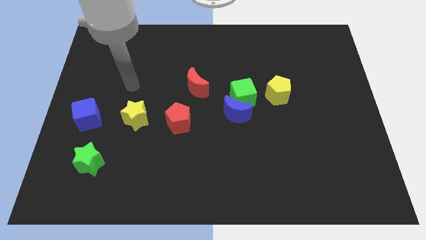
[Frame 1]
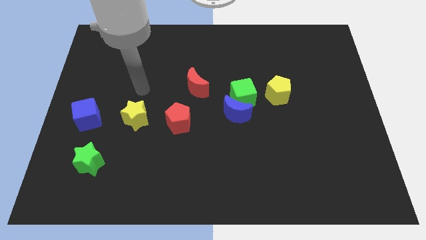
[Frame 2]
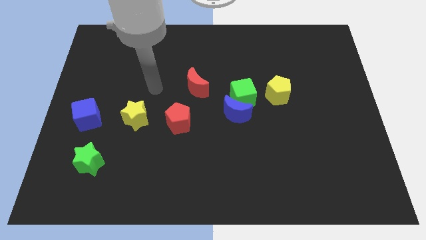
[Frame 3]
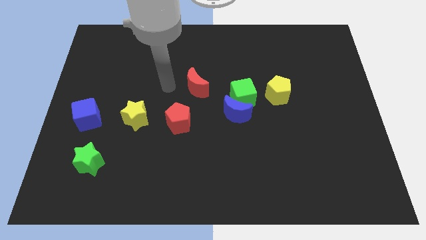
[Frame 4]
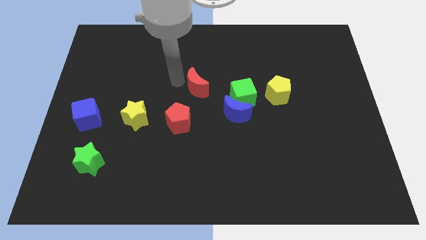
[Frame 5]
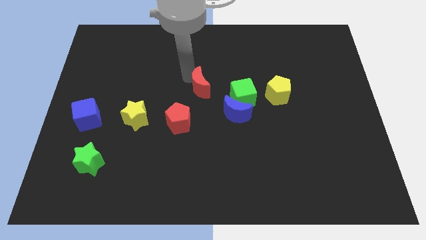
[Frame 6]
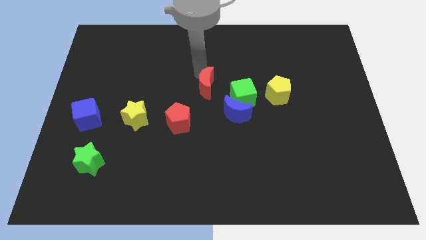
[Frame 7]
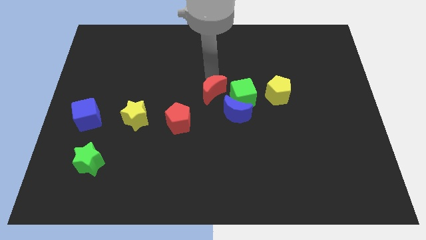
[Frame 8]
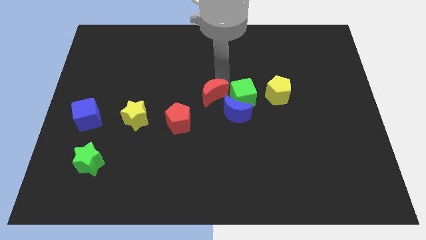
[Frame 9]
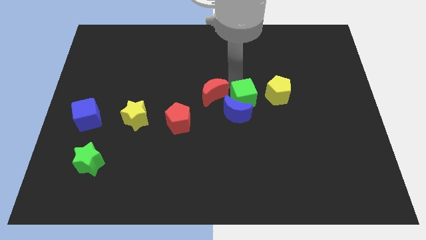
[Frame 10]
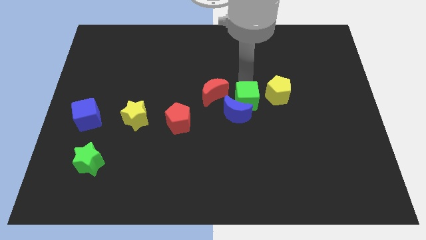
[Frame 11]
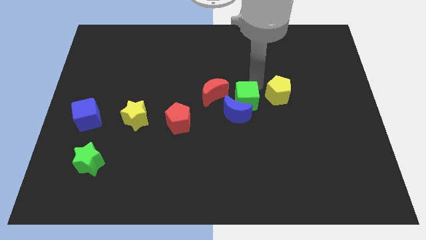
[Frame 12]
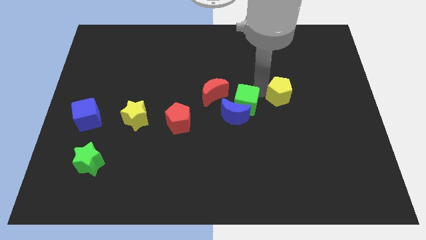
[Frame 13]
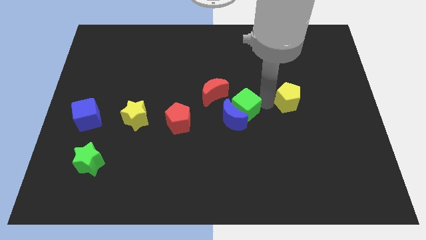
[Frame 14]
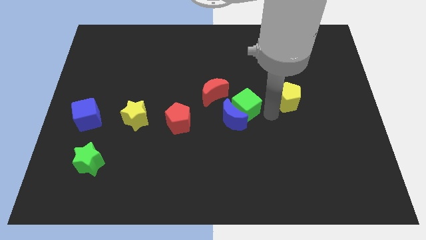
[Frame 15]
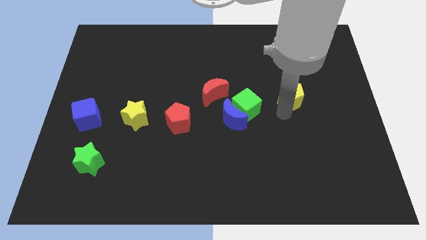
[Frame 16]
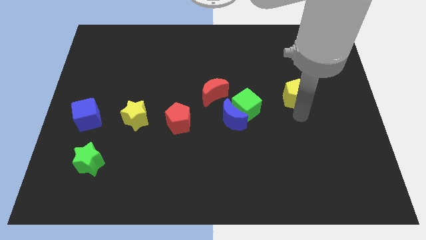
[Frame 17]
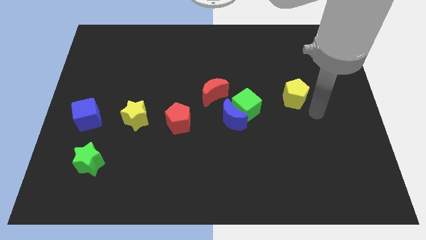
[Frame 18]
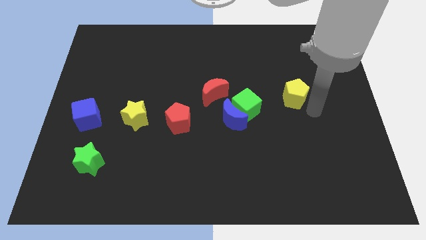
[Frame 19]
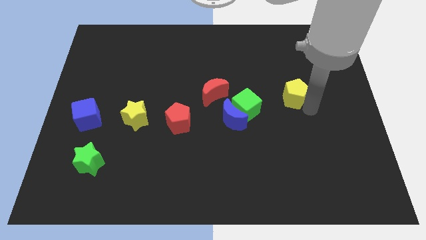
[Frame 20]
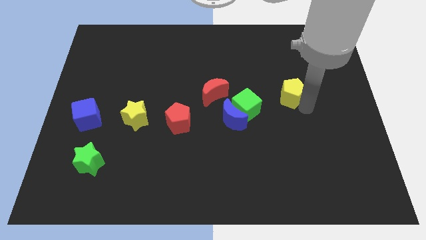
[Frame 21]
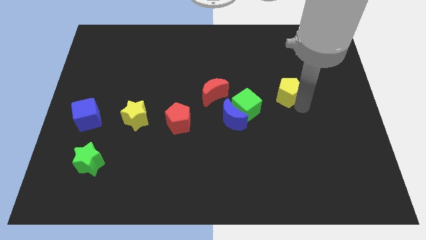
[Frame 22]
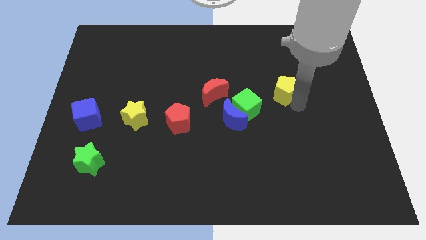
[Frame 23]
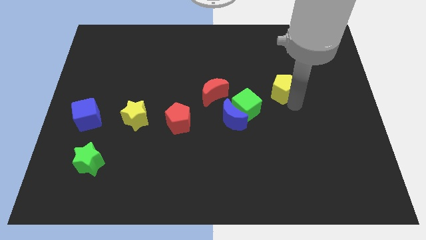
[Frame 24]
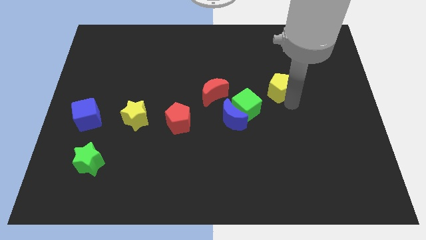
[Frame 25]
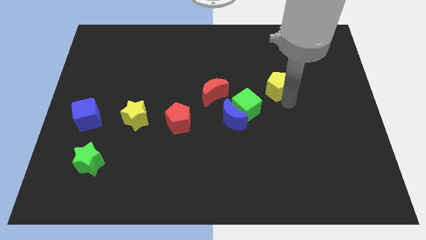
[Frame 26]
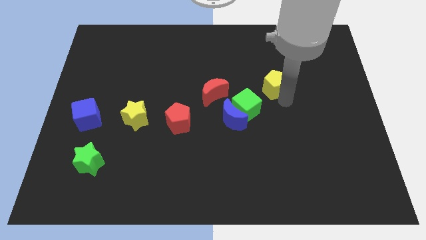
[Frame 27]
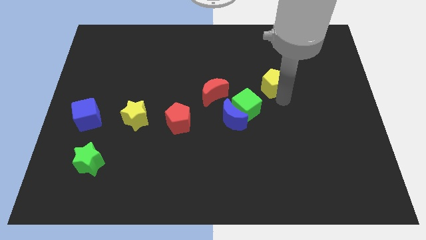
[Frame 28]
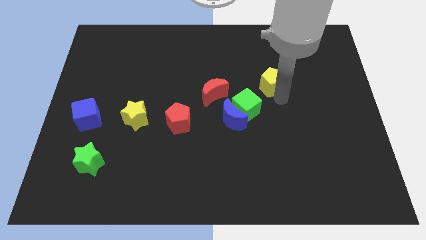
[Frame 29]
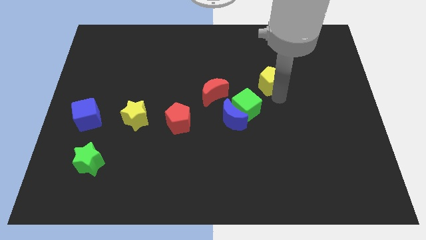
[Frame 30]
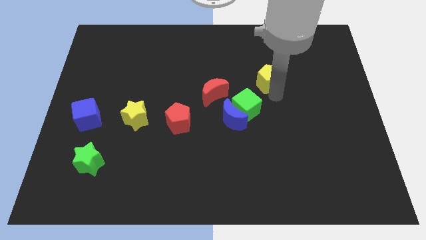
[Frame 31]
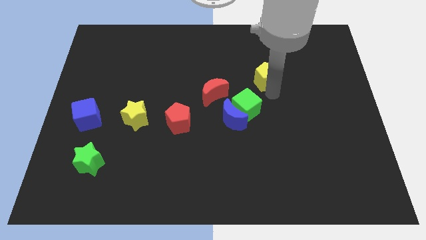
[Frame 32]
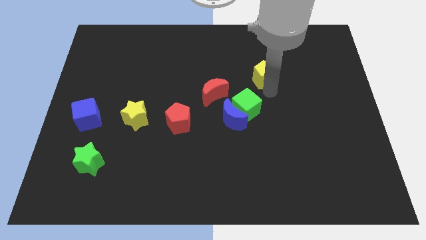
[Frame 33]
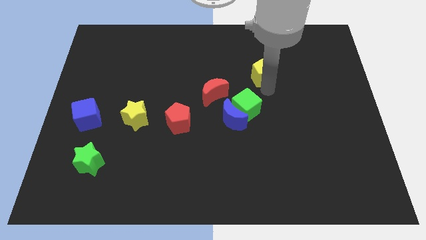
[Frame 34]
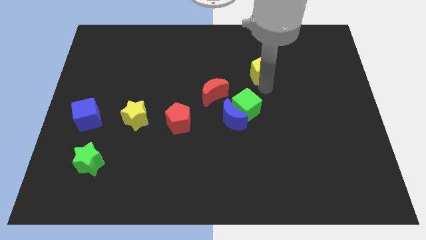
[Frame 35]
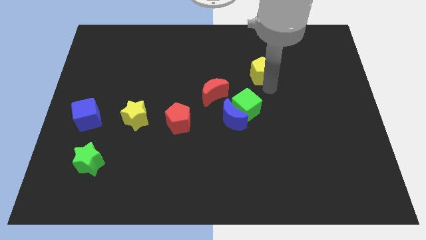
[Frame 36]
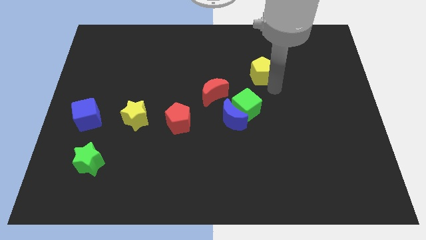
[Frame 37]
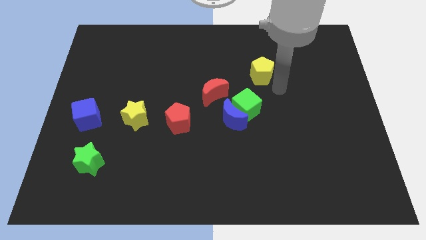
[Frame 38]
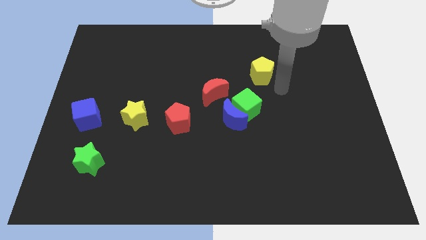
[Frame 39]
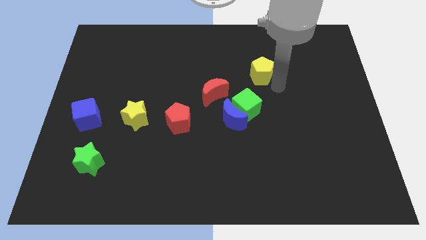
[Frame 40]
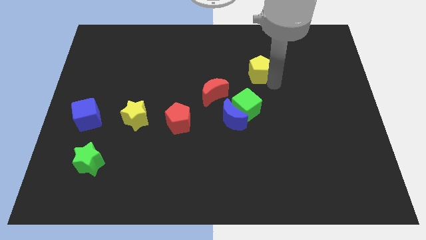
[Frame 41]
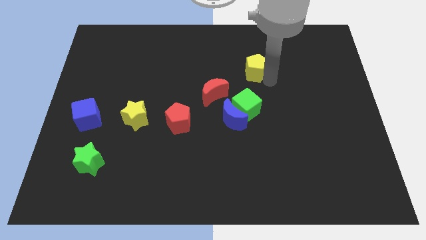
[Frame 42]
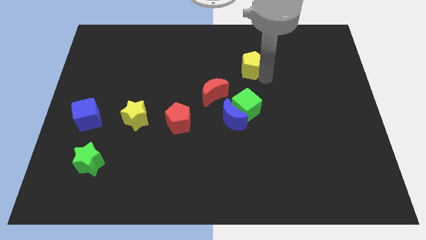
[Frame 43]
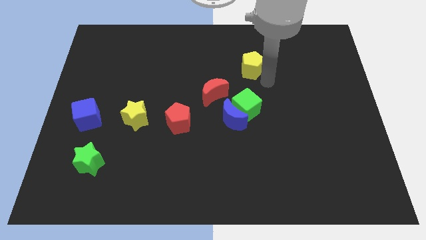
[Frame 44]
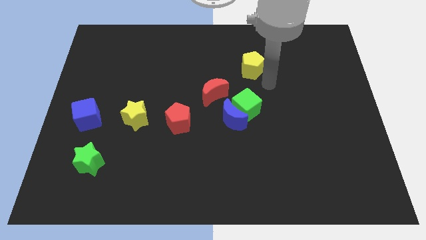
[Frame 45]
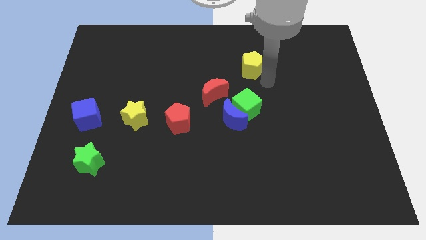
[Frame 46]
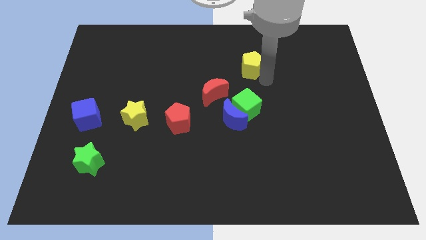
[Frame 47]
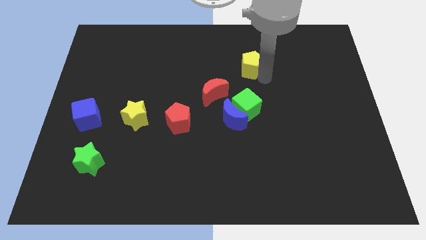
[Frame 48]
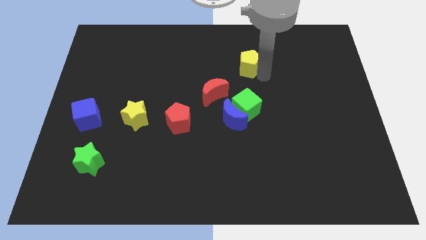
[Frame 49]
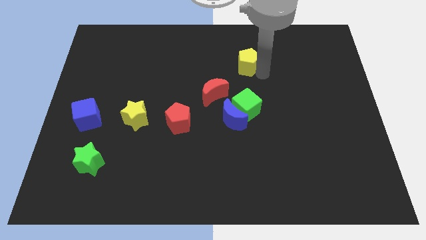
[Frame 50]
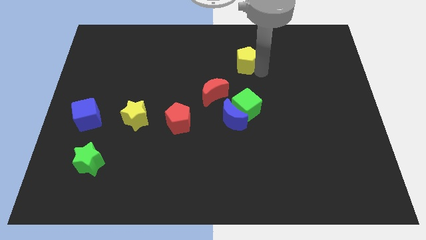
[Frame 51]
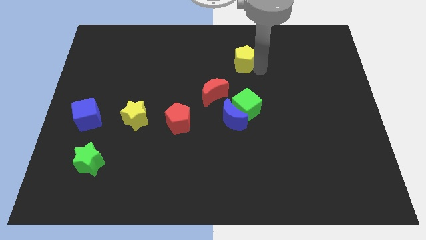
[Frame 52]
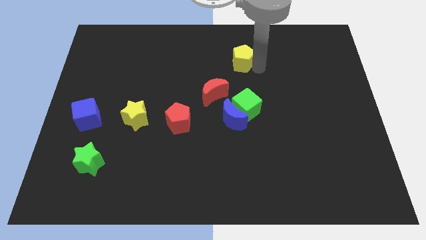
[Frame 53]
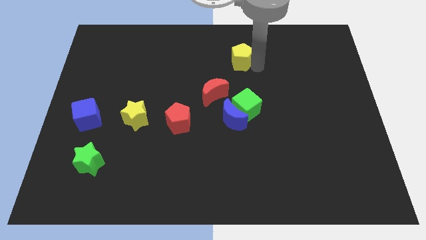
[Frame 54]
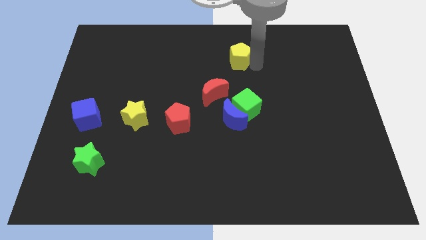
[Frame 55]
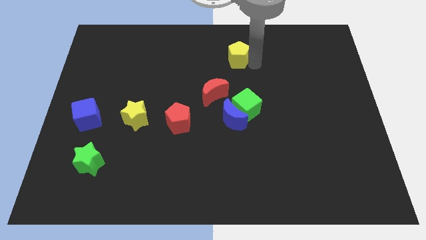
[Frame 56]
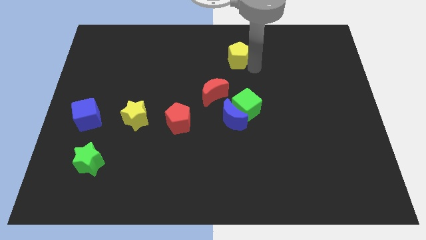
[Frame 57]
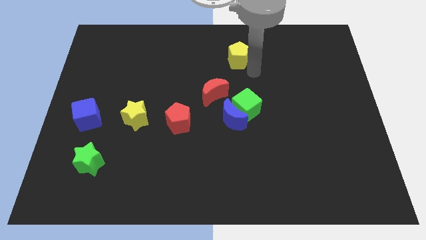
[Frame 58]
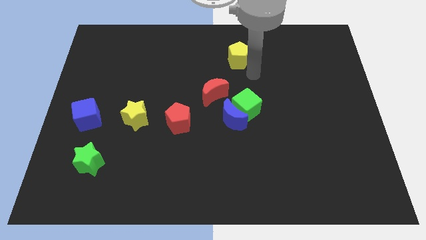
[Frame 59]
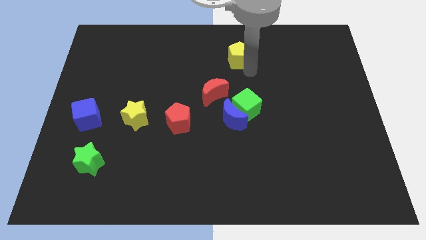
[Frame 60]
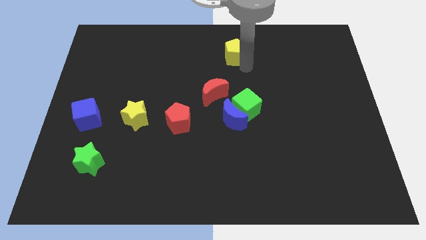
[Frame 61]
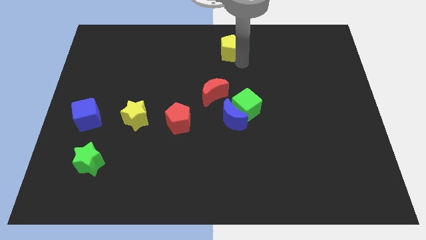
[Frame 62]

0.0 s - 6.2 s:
move the yellow pentagon to the top
